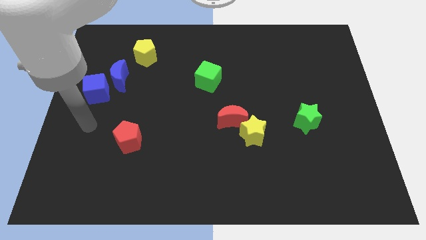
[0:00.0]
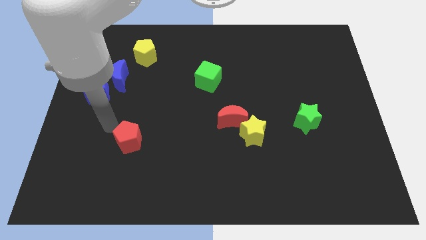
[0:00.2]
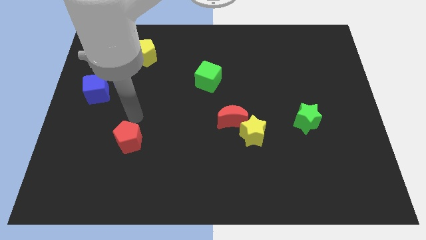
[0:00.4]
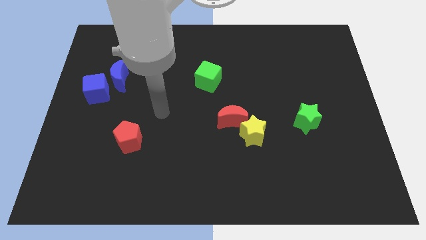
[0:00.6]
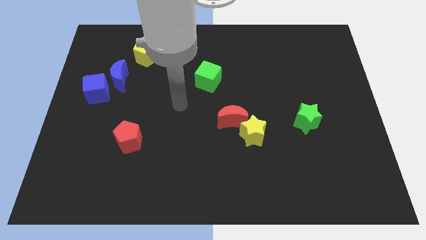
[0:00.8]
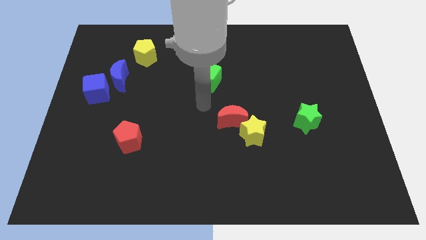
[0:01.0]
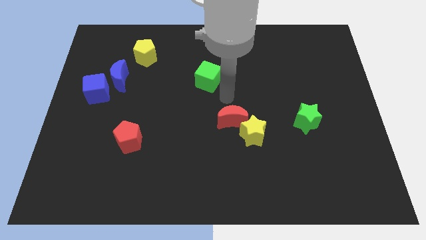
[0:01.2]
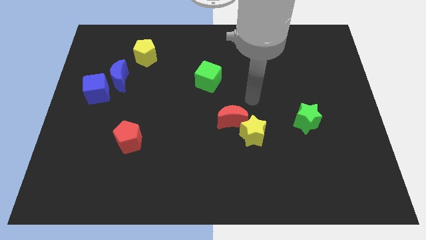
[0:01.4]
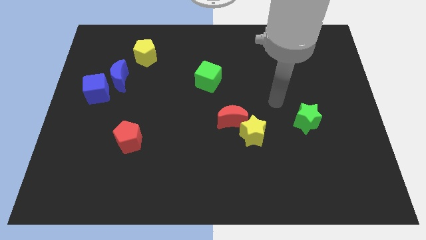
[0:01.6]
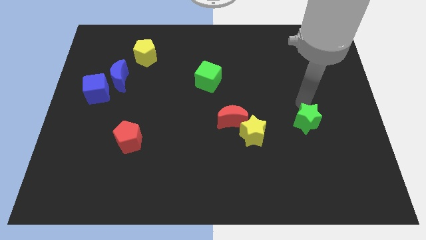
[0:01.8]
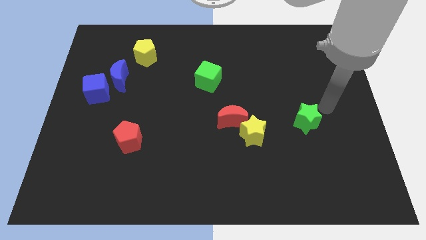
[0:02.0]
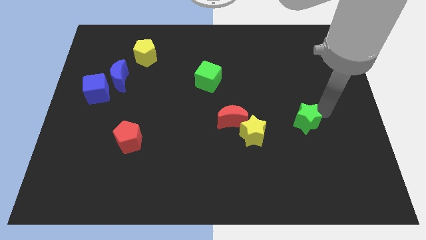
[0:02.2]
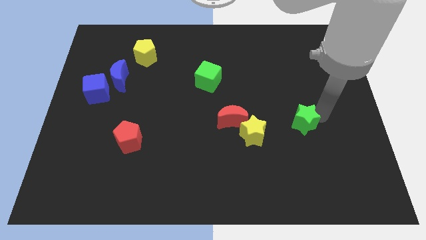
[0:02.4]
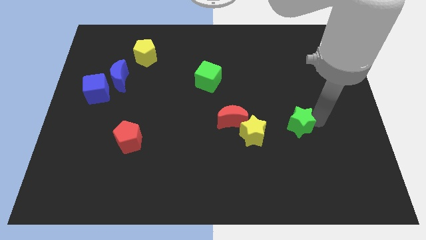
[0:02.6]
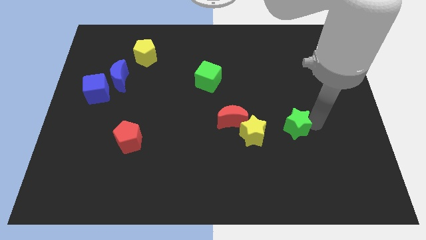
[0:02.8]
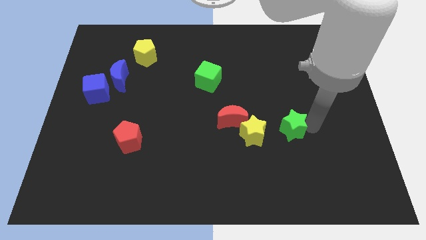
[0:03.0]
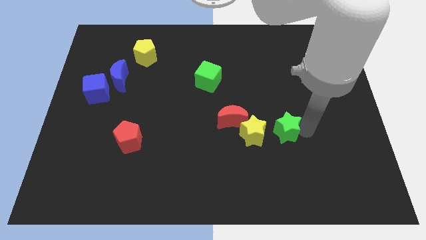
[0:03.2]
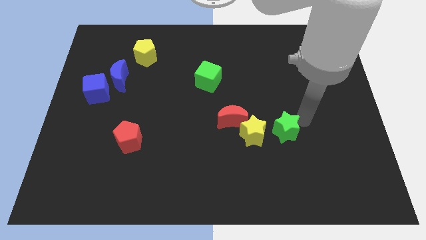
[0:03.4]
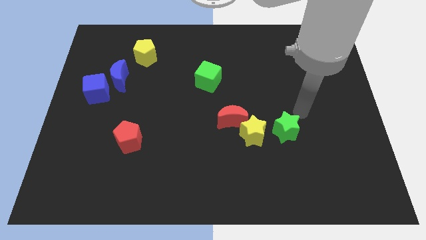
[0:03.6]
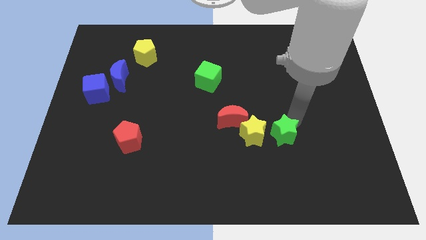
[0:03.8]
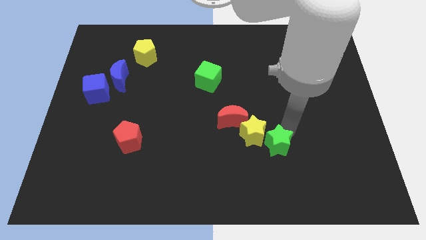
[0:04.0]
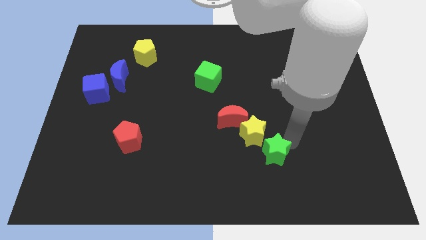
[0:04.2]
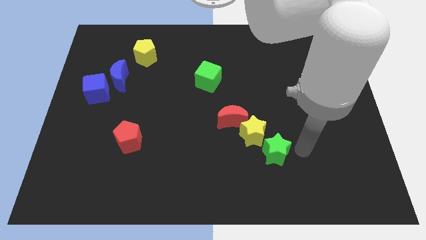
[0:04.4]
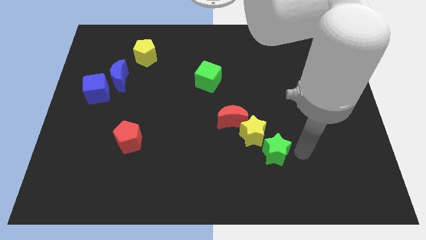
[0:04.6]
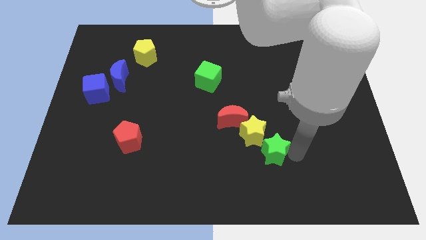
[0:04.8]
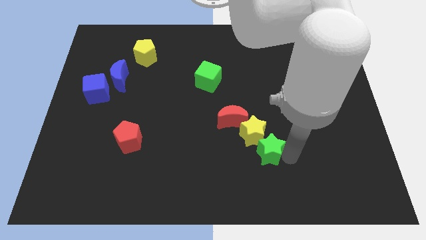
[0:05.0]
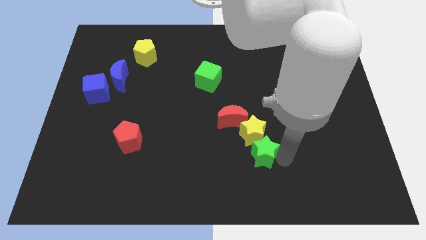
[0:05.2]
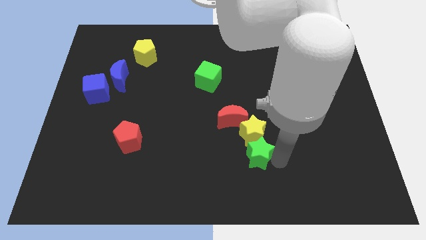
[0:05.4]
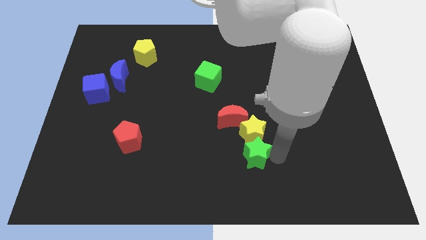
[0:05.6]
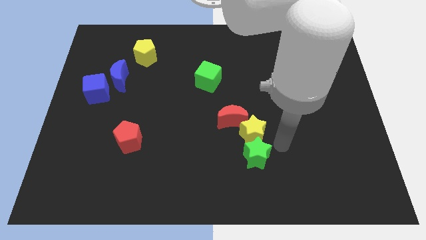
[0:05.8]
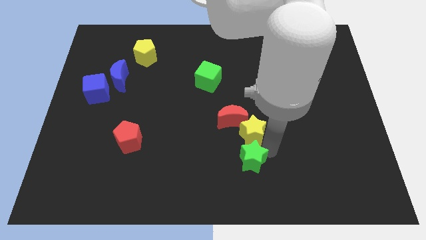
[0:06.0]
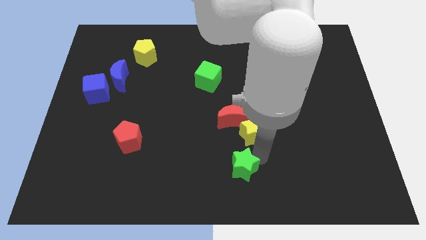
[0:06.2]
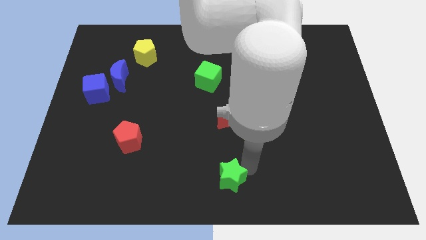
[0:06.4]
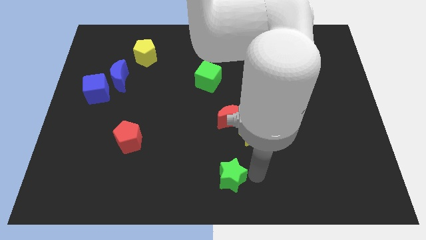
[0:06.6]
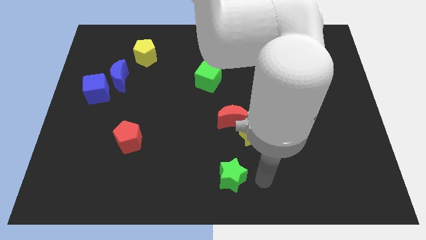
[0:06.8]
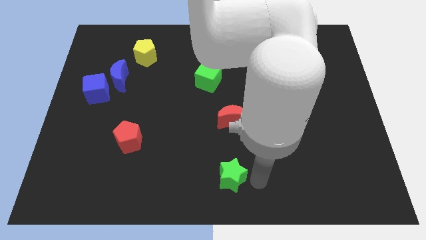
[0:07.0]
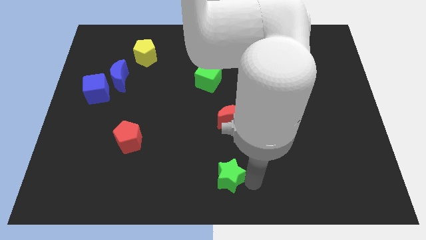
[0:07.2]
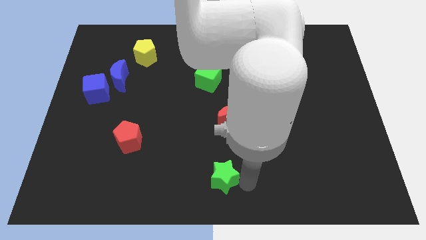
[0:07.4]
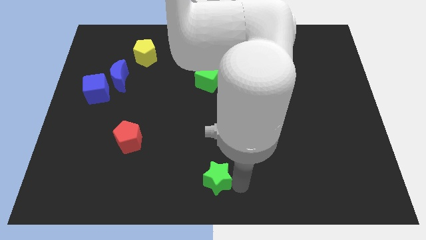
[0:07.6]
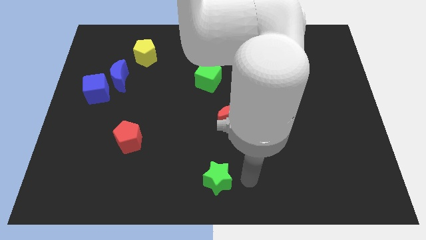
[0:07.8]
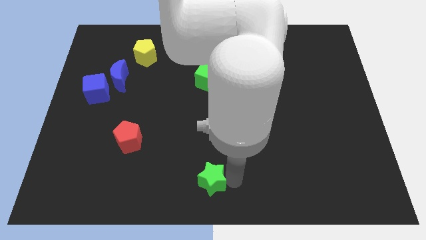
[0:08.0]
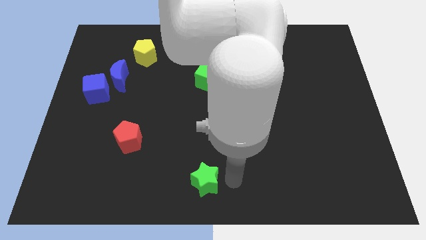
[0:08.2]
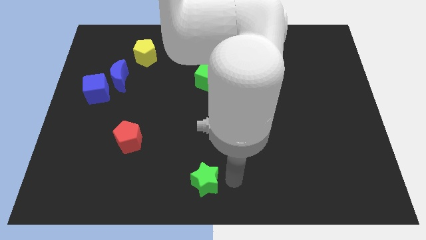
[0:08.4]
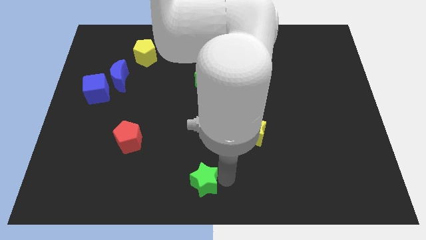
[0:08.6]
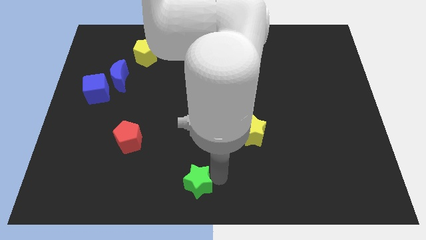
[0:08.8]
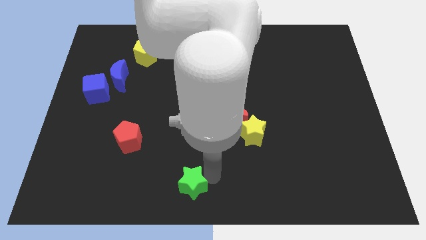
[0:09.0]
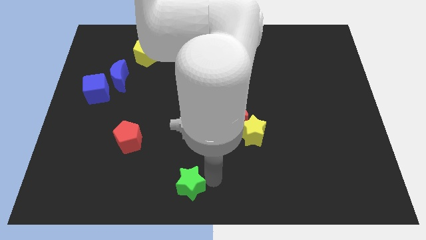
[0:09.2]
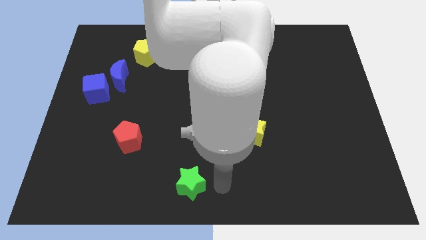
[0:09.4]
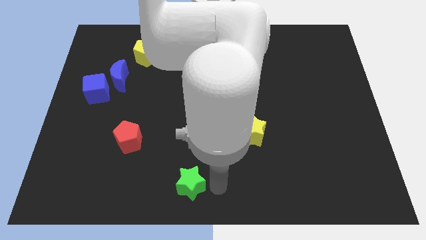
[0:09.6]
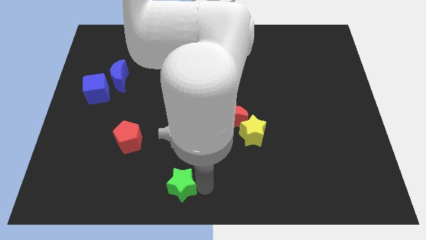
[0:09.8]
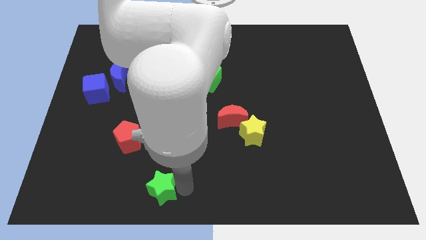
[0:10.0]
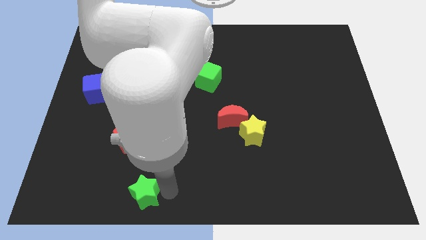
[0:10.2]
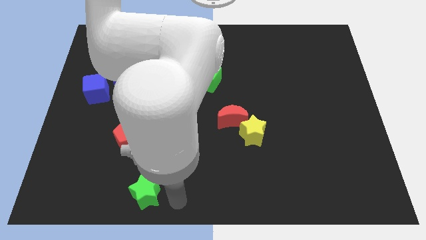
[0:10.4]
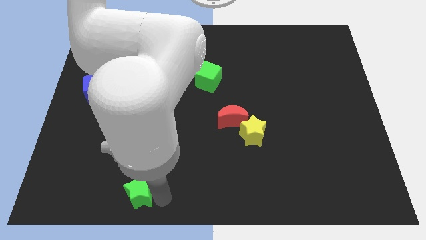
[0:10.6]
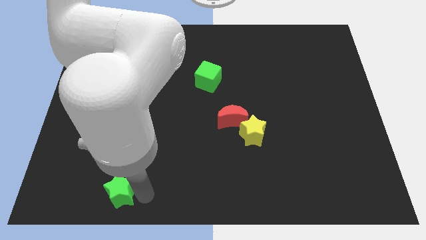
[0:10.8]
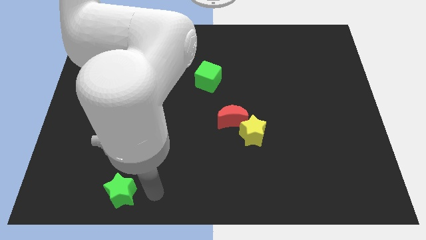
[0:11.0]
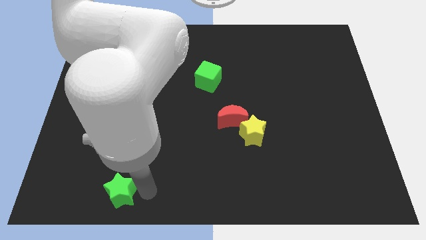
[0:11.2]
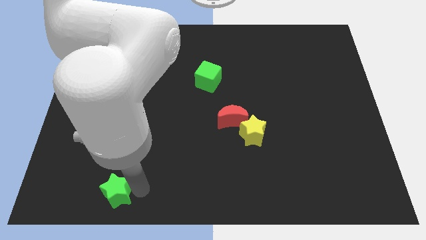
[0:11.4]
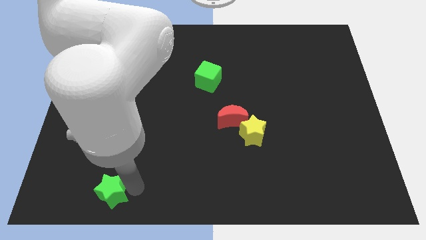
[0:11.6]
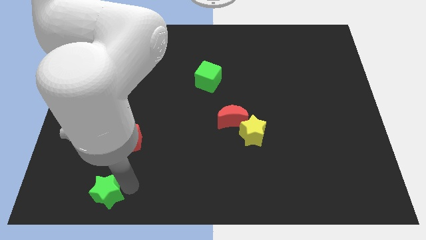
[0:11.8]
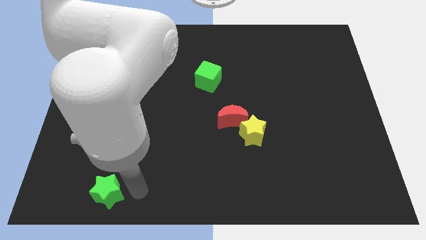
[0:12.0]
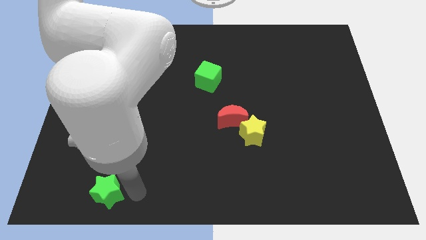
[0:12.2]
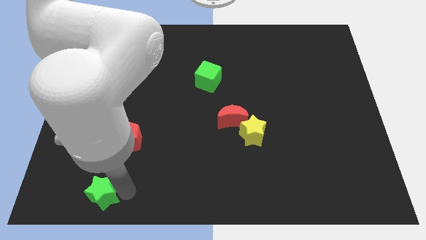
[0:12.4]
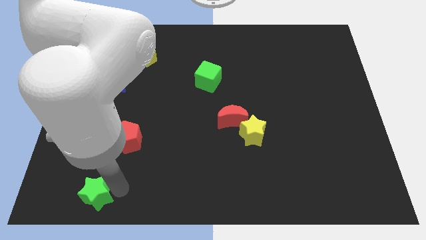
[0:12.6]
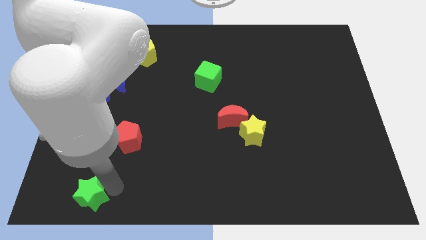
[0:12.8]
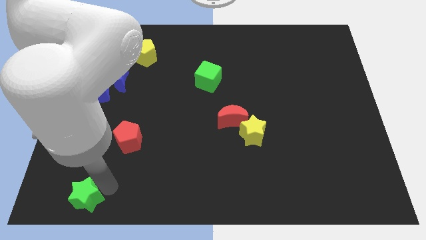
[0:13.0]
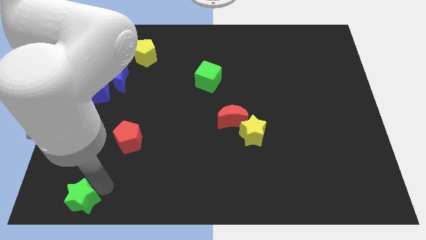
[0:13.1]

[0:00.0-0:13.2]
move the green star to the bottom left corner
